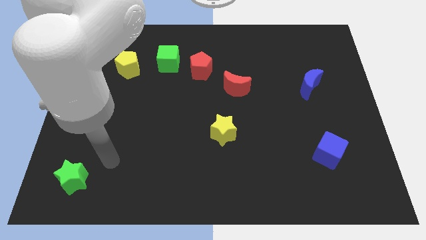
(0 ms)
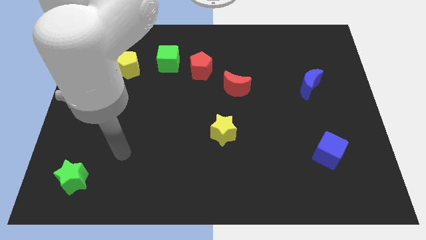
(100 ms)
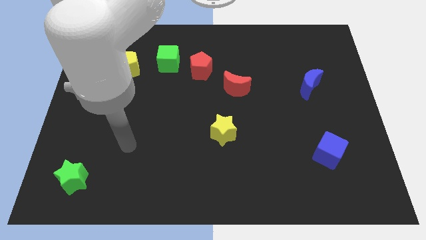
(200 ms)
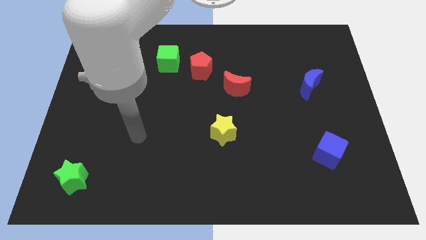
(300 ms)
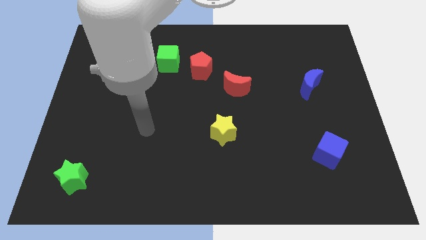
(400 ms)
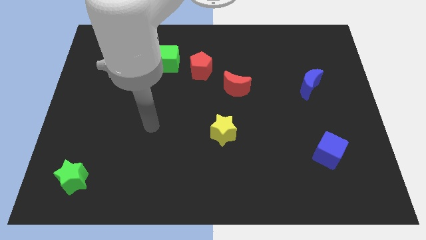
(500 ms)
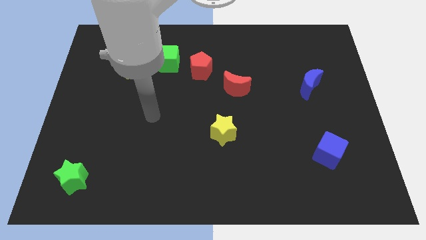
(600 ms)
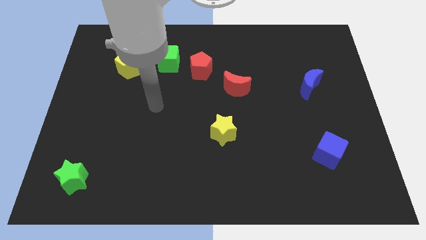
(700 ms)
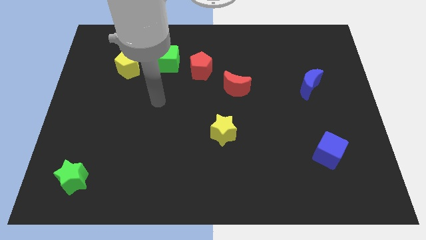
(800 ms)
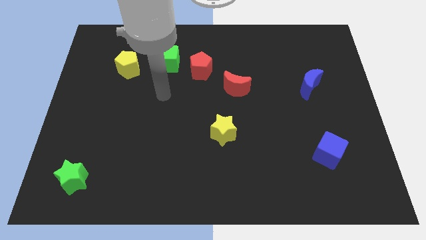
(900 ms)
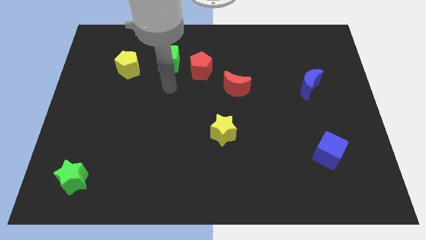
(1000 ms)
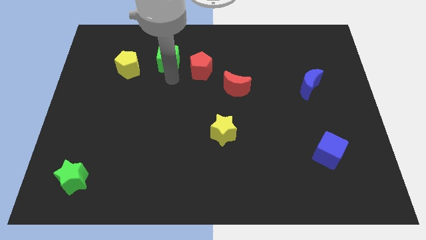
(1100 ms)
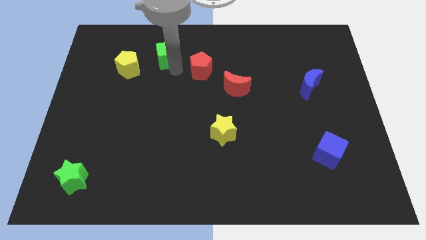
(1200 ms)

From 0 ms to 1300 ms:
pull the red pentagon apart from the green cube

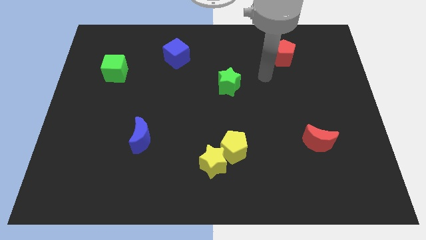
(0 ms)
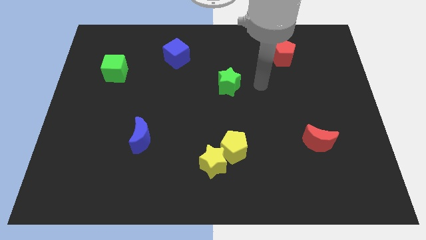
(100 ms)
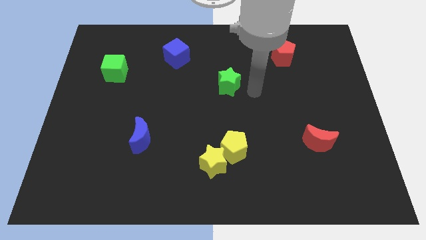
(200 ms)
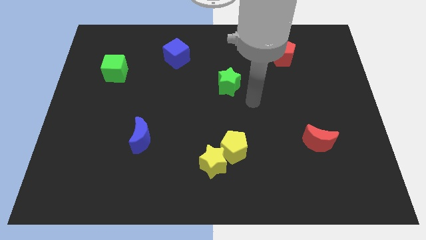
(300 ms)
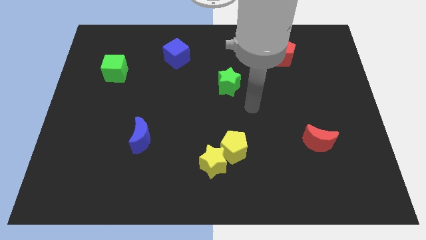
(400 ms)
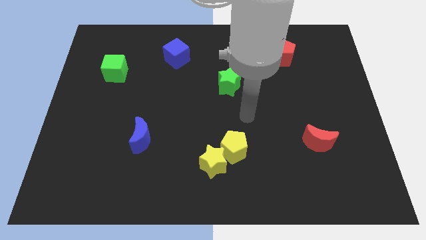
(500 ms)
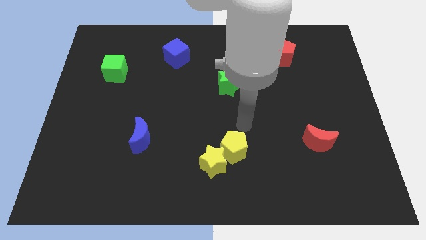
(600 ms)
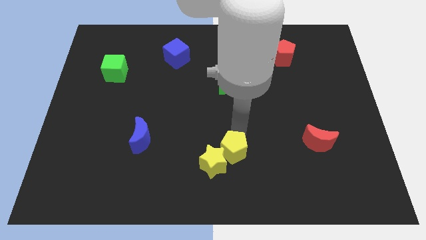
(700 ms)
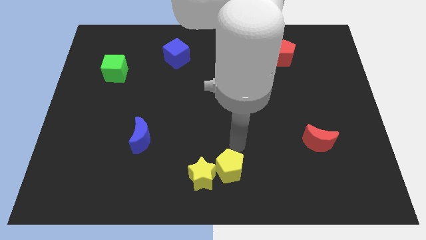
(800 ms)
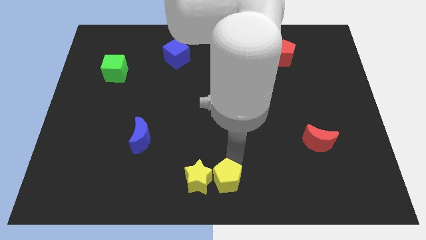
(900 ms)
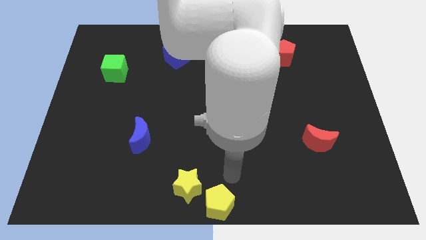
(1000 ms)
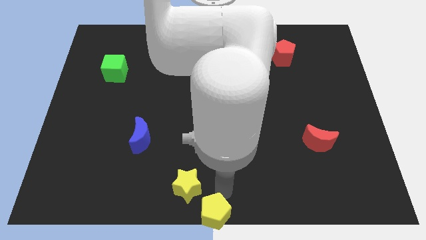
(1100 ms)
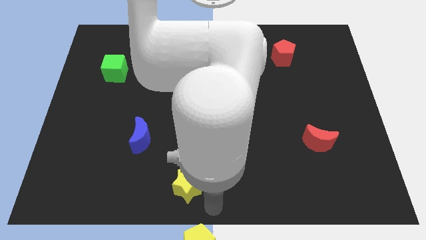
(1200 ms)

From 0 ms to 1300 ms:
move the yellow star away from the yellow pentagon

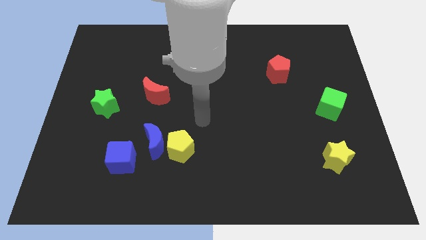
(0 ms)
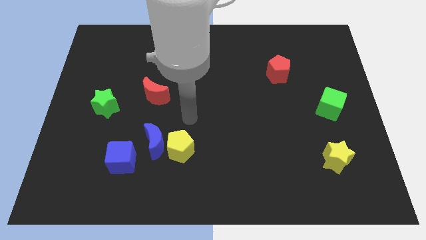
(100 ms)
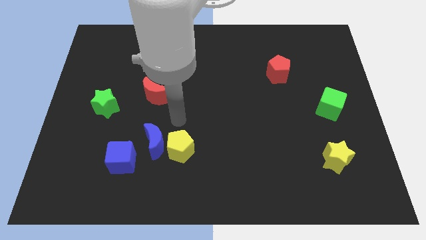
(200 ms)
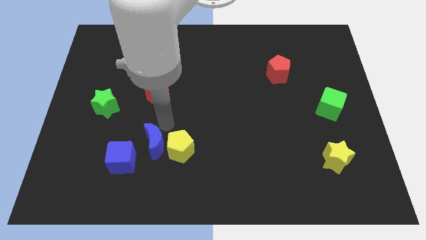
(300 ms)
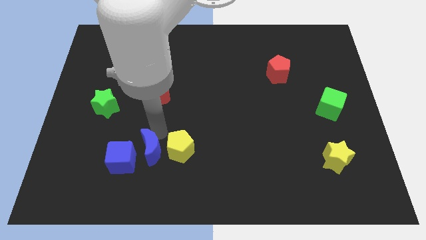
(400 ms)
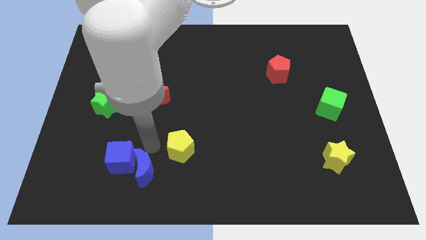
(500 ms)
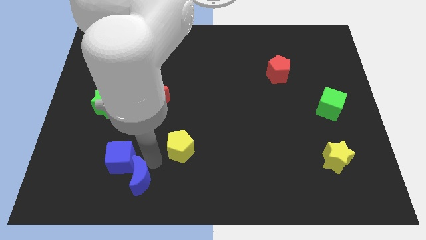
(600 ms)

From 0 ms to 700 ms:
separate the yellow pentagon from the blue moon

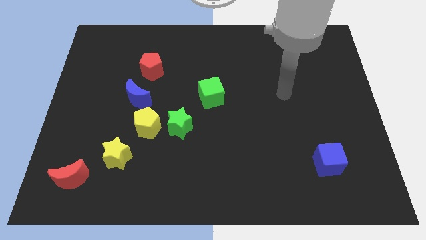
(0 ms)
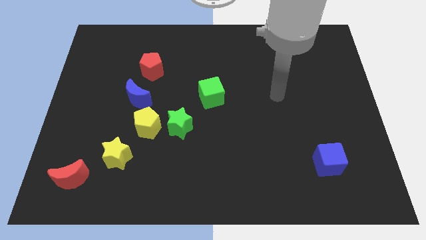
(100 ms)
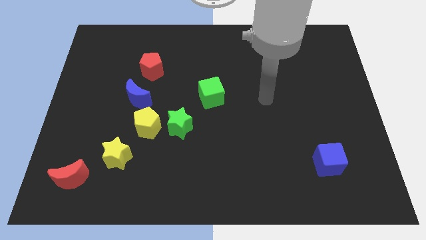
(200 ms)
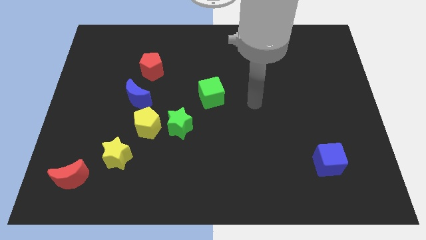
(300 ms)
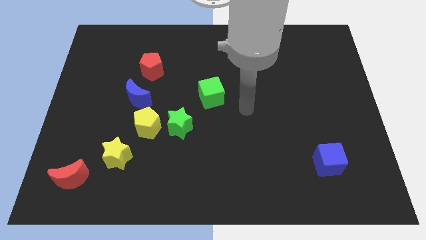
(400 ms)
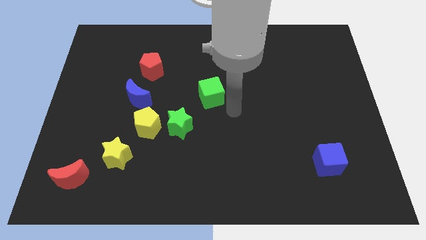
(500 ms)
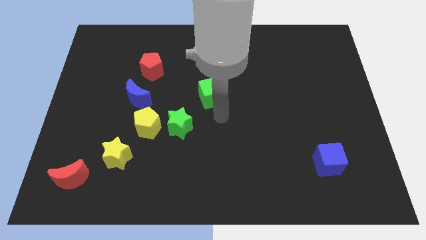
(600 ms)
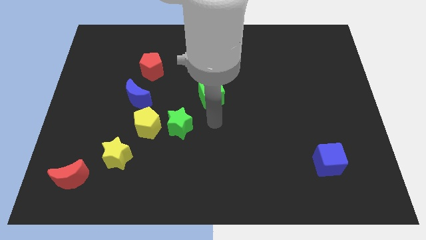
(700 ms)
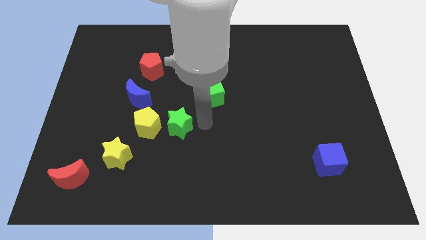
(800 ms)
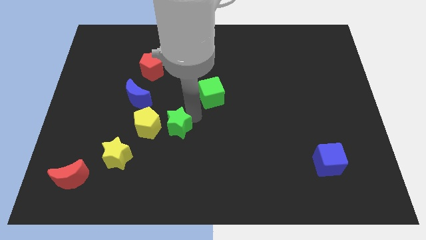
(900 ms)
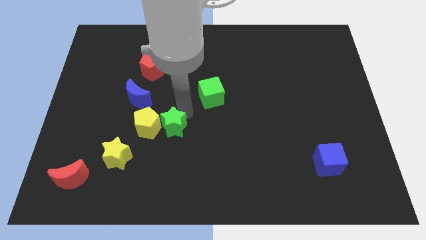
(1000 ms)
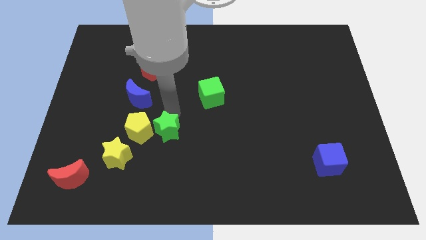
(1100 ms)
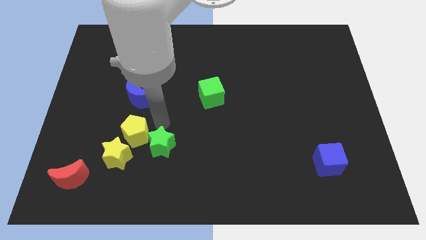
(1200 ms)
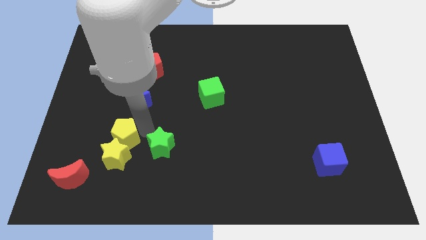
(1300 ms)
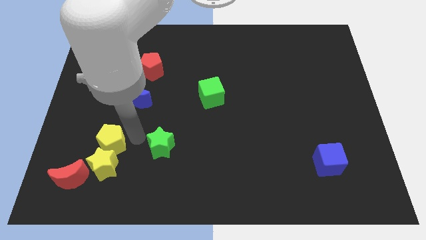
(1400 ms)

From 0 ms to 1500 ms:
separate the green star from the yellow pentagon

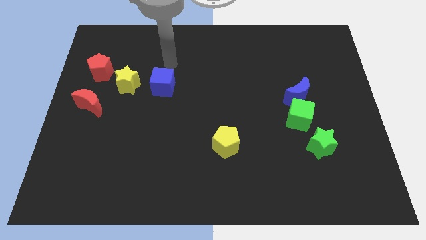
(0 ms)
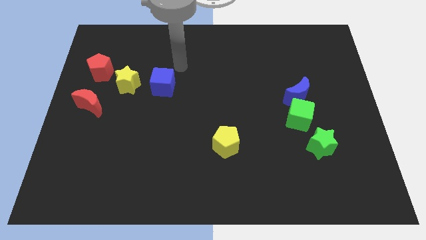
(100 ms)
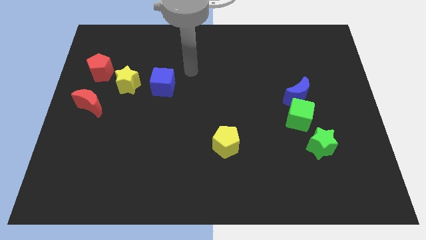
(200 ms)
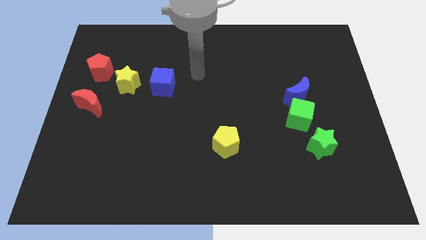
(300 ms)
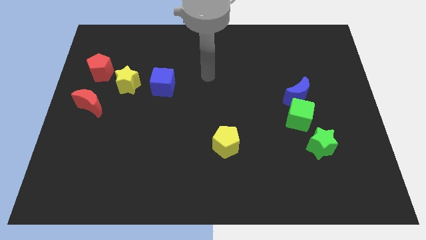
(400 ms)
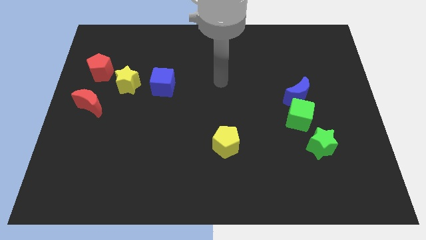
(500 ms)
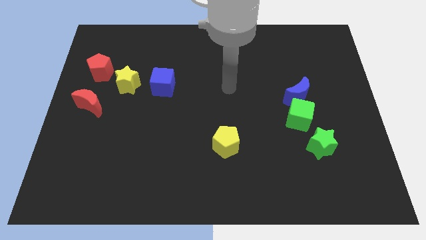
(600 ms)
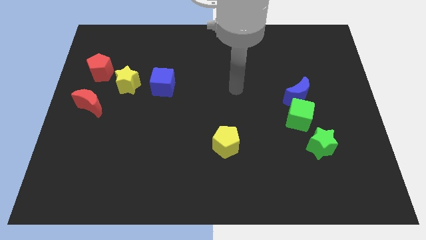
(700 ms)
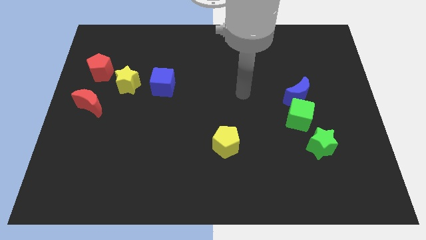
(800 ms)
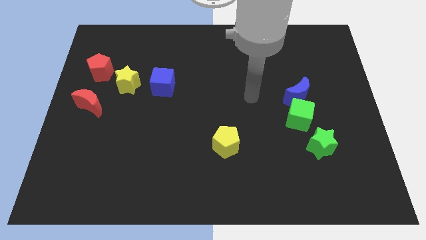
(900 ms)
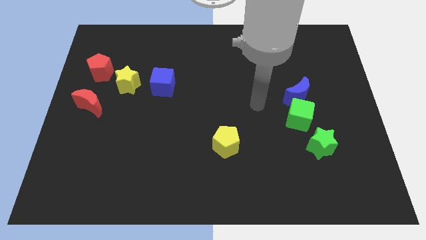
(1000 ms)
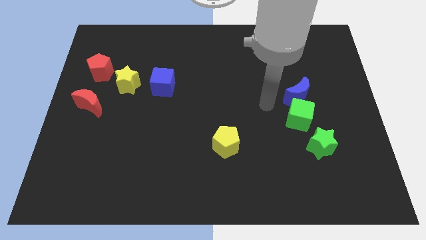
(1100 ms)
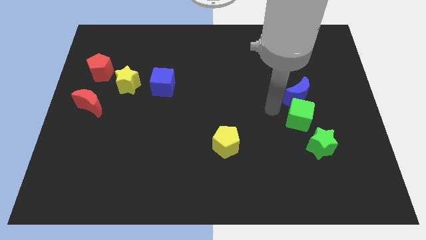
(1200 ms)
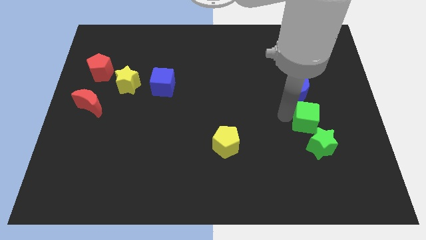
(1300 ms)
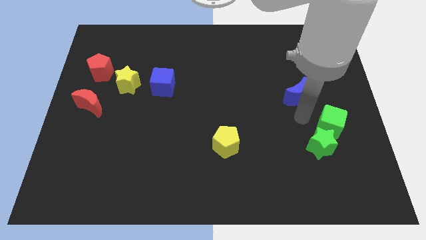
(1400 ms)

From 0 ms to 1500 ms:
move the blue moon away from the green cube

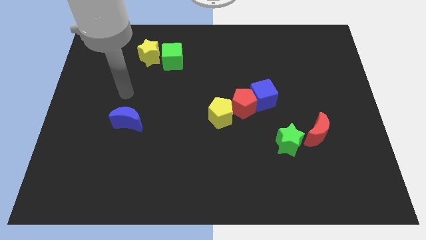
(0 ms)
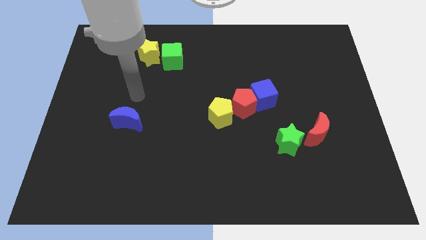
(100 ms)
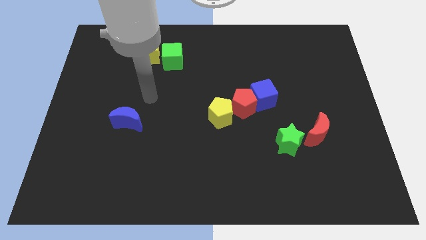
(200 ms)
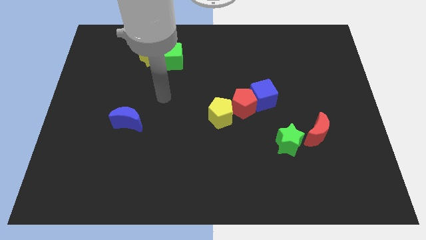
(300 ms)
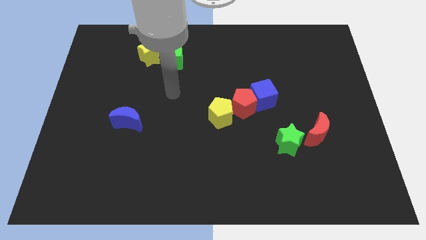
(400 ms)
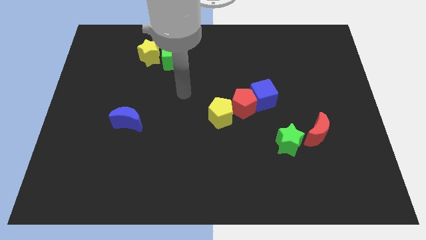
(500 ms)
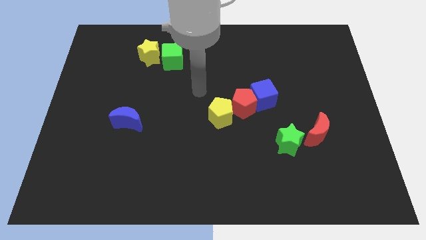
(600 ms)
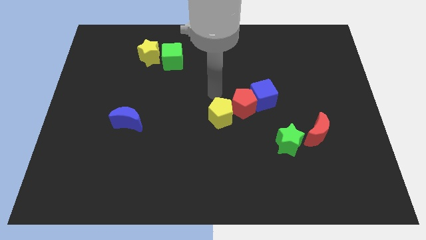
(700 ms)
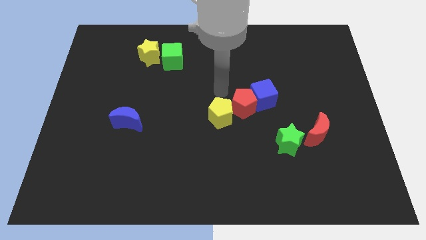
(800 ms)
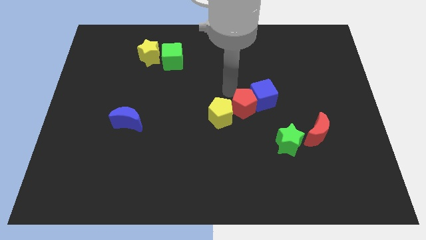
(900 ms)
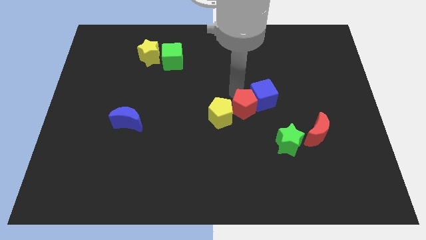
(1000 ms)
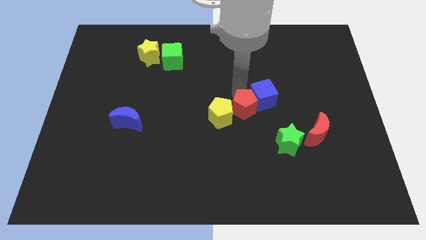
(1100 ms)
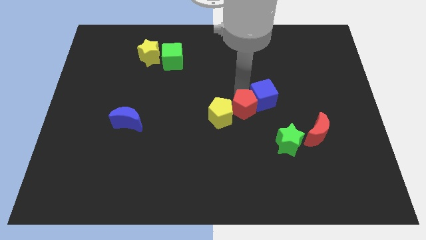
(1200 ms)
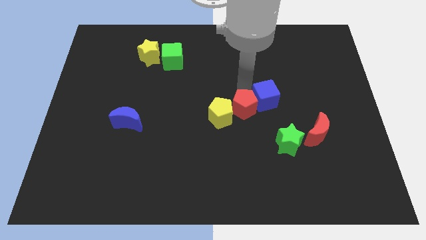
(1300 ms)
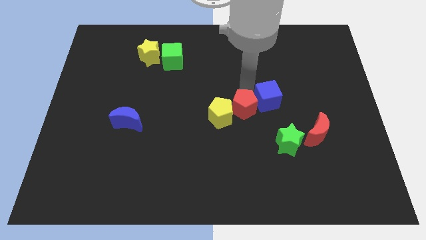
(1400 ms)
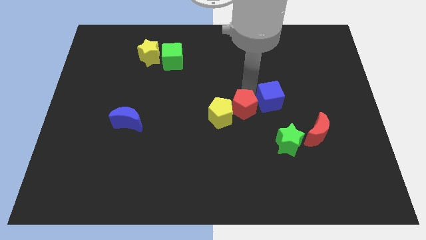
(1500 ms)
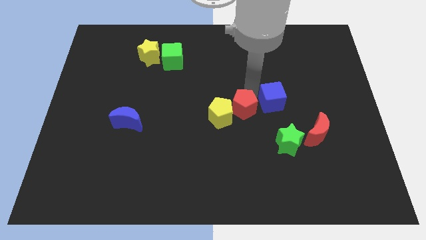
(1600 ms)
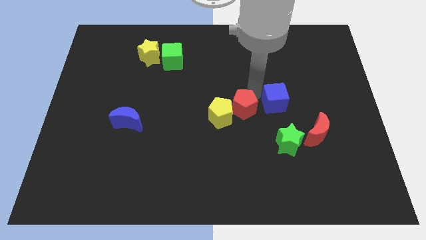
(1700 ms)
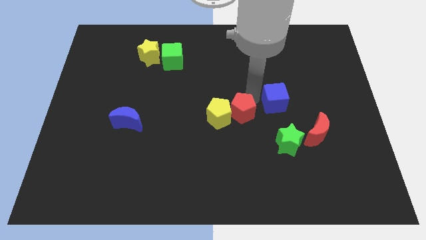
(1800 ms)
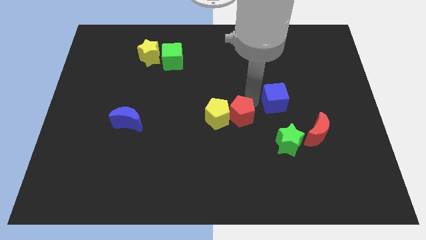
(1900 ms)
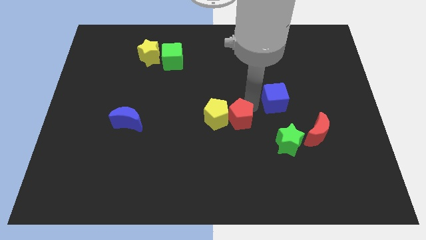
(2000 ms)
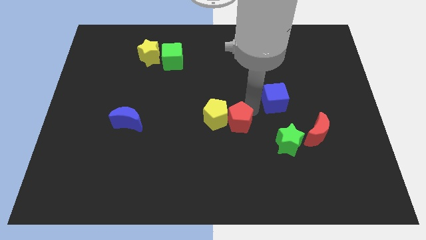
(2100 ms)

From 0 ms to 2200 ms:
move the blue cube away from the red pentagon

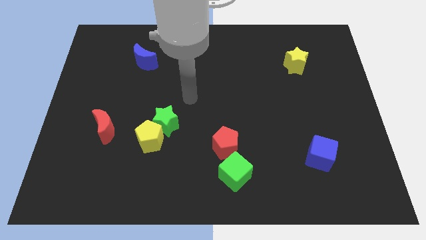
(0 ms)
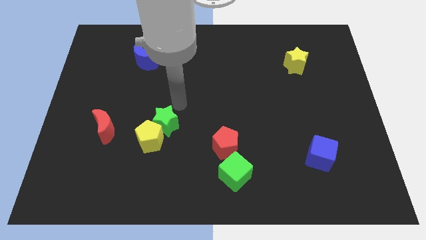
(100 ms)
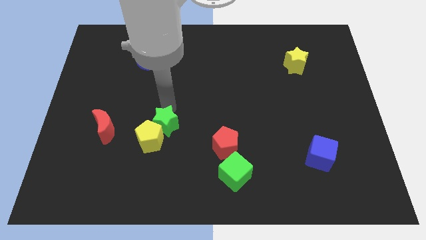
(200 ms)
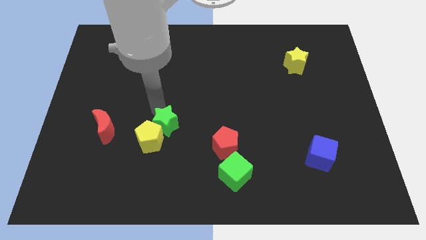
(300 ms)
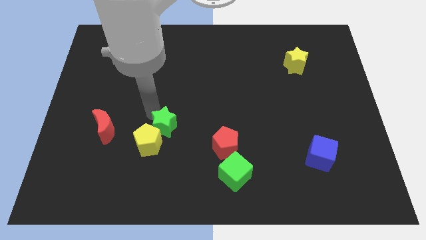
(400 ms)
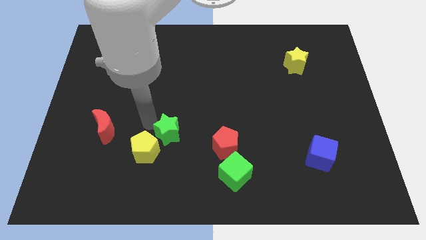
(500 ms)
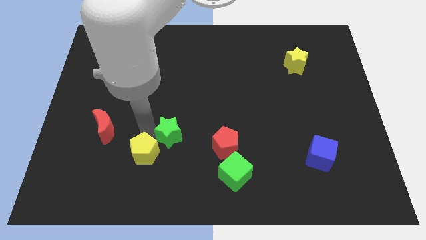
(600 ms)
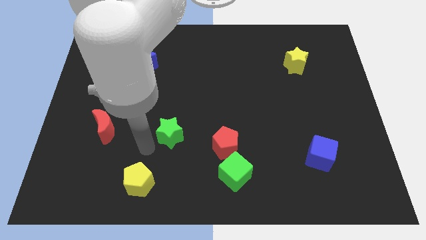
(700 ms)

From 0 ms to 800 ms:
pull the green star apart from the yellow pentagon

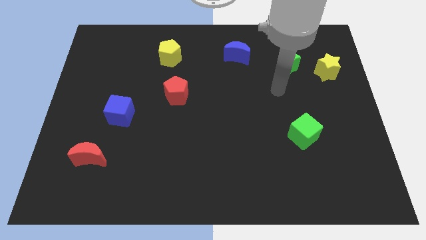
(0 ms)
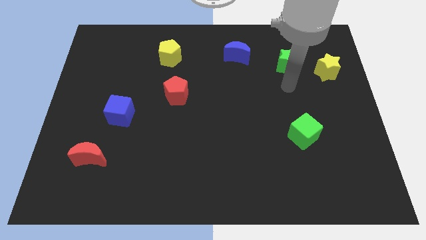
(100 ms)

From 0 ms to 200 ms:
pull the green star apart from the yellow star

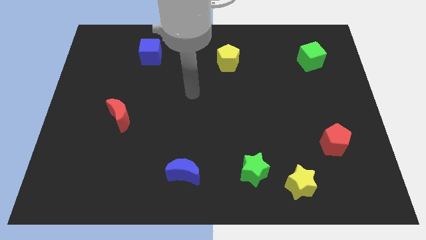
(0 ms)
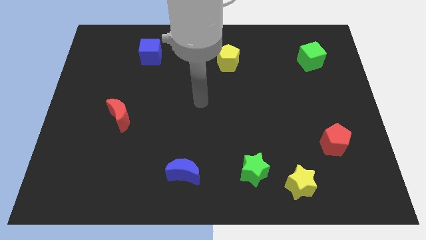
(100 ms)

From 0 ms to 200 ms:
separate the green star from the yellow star
